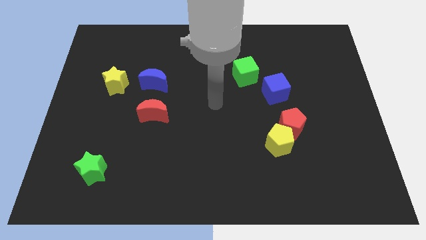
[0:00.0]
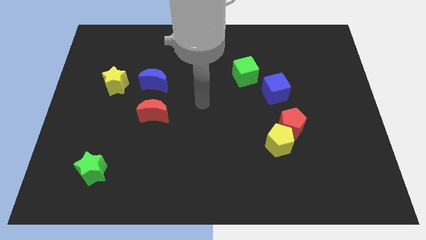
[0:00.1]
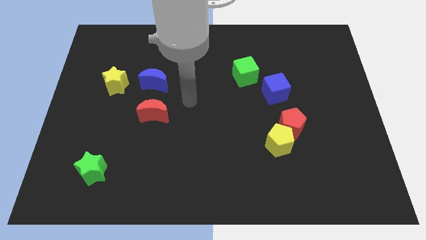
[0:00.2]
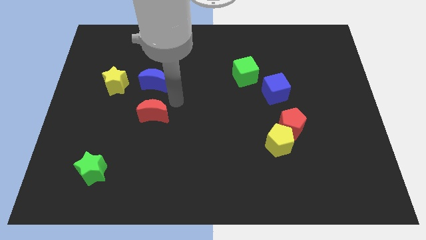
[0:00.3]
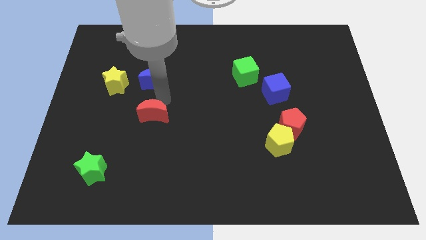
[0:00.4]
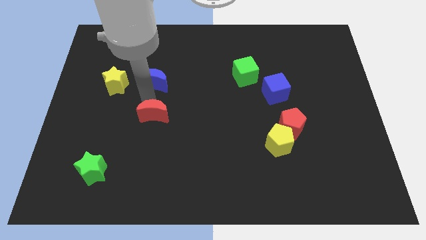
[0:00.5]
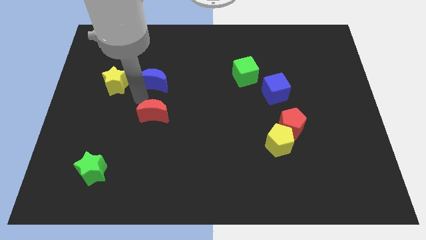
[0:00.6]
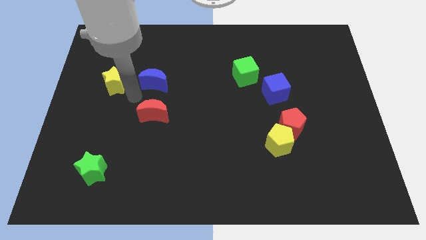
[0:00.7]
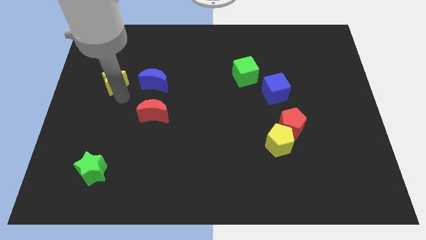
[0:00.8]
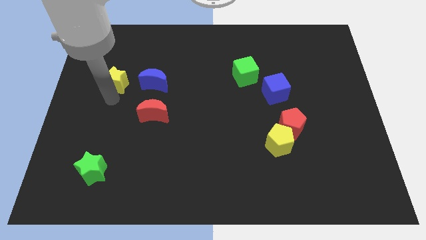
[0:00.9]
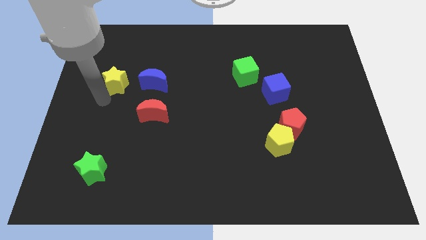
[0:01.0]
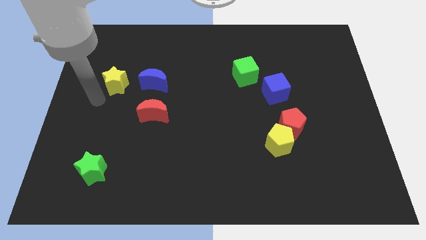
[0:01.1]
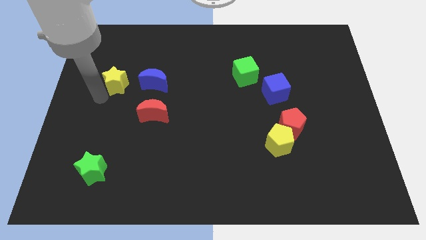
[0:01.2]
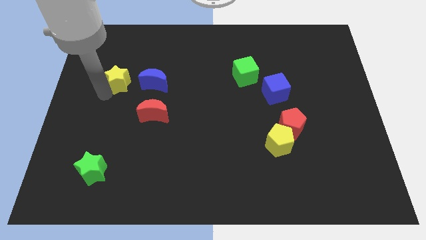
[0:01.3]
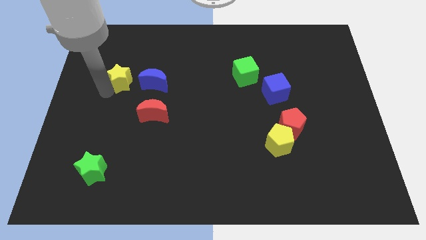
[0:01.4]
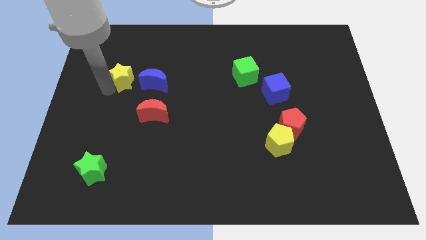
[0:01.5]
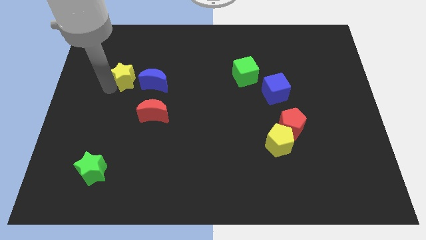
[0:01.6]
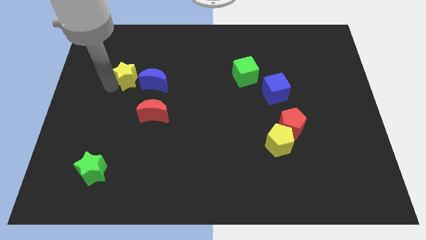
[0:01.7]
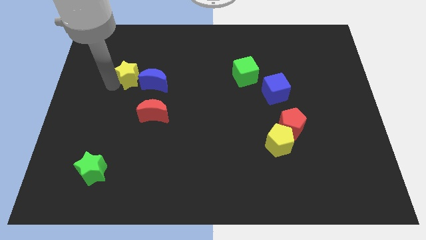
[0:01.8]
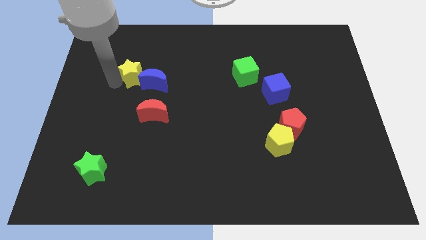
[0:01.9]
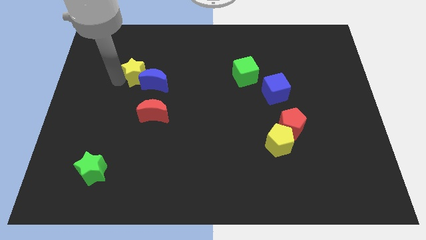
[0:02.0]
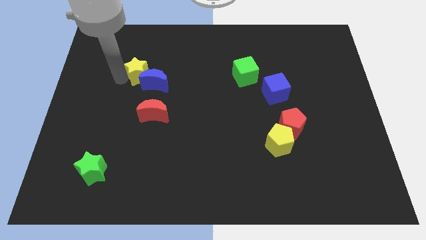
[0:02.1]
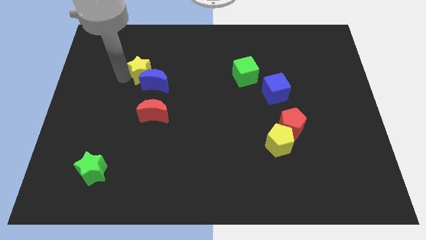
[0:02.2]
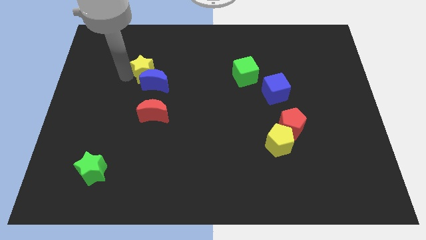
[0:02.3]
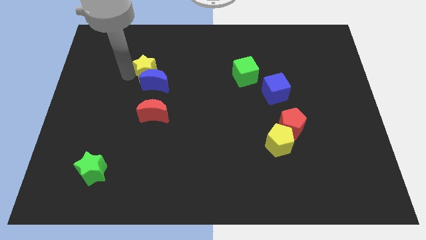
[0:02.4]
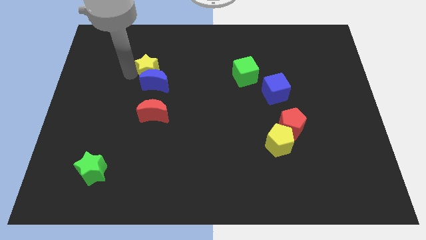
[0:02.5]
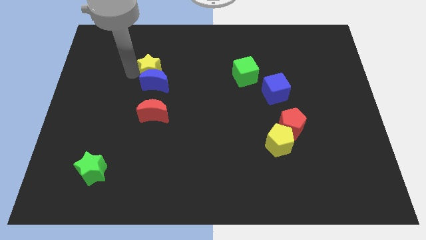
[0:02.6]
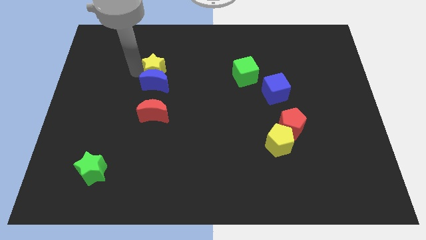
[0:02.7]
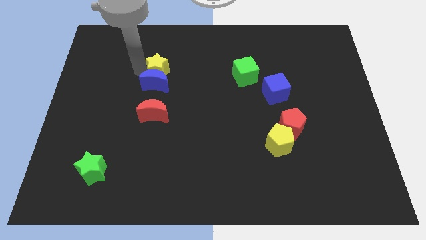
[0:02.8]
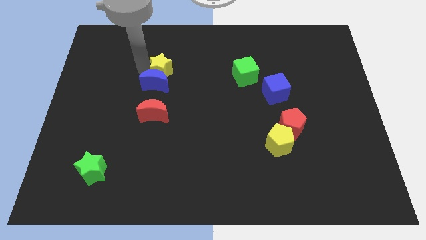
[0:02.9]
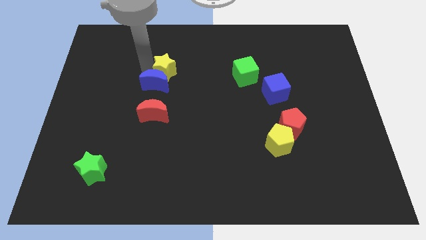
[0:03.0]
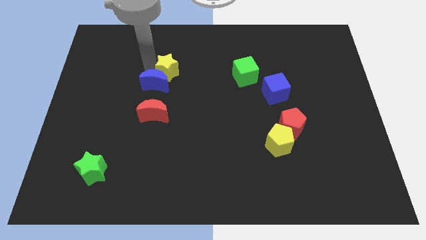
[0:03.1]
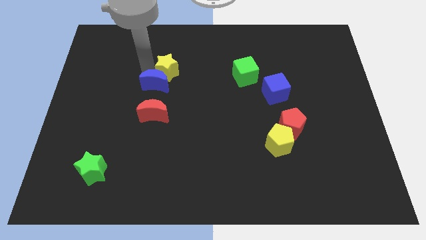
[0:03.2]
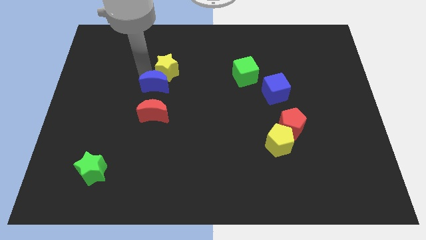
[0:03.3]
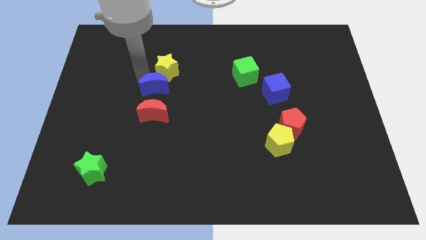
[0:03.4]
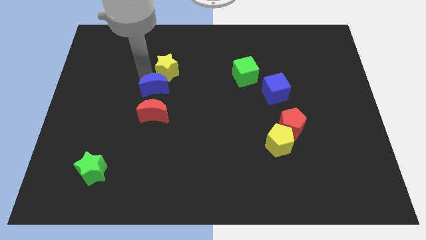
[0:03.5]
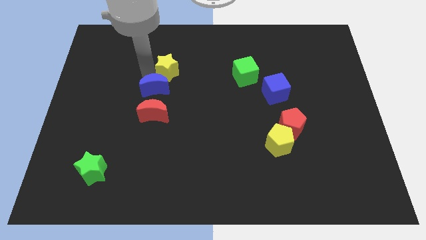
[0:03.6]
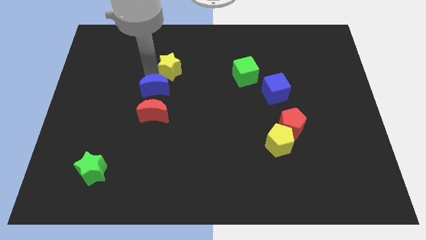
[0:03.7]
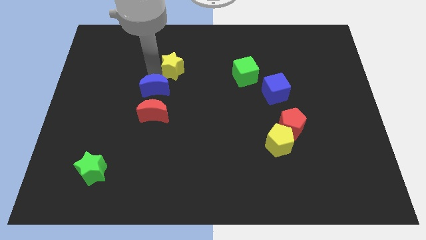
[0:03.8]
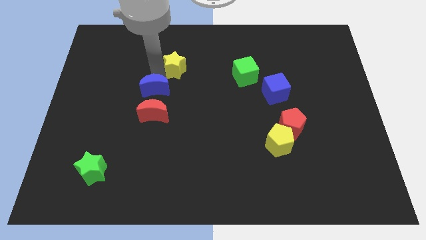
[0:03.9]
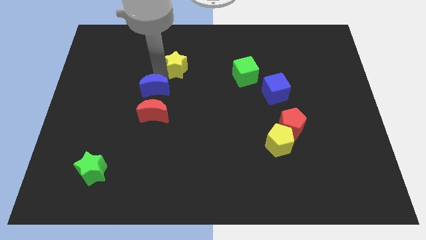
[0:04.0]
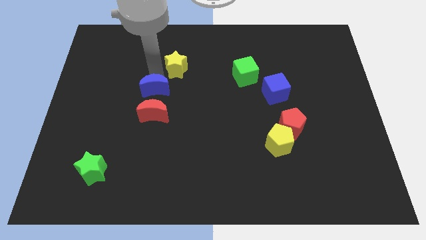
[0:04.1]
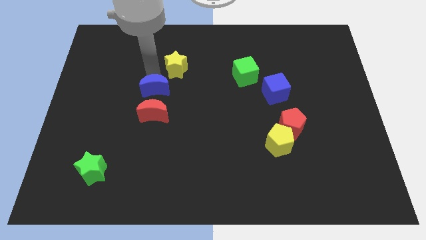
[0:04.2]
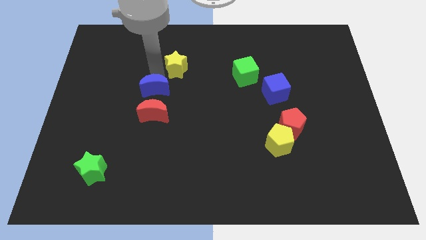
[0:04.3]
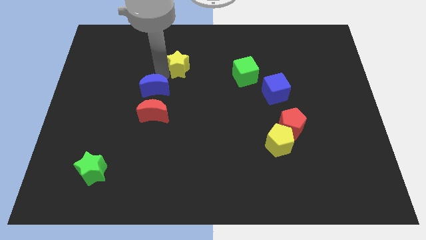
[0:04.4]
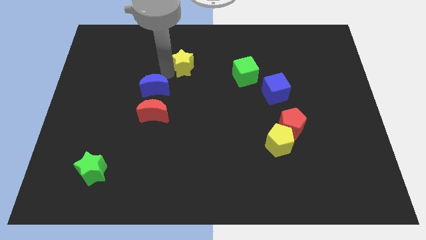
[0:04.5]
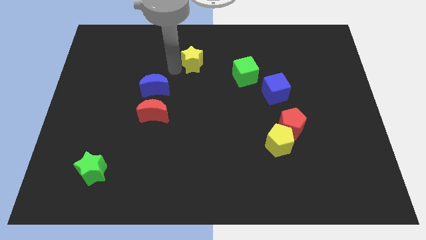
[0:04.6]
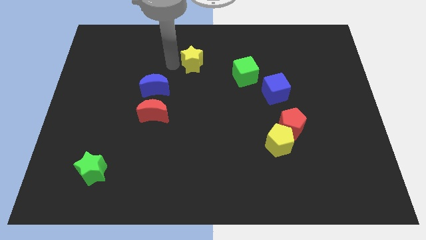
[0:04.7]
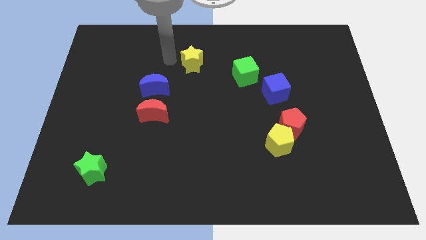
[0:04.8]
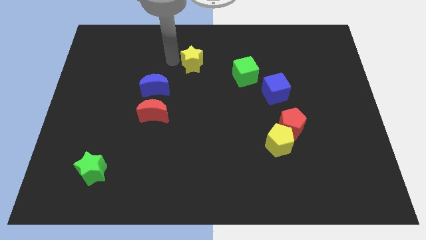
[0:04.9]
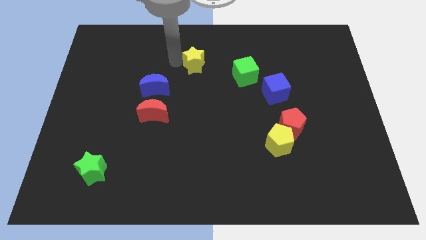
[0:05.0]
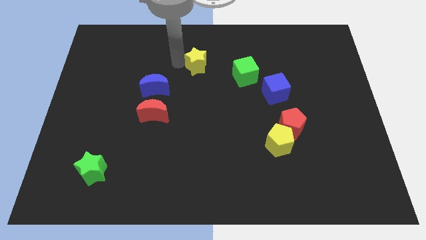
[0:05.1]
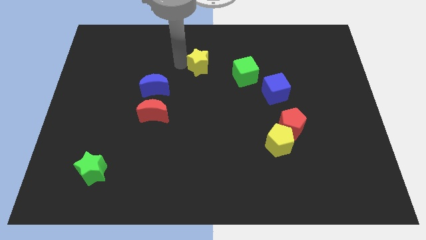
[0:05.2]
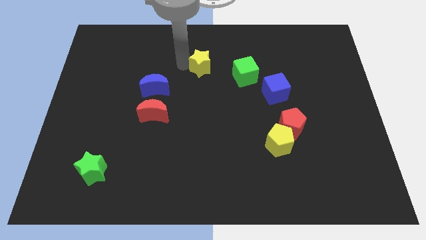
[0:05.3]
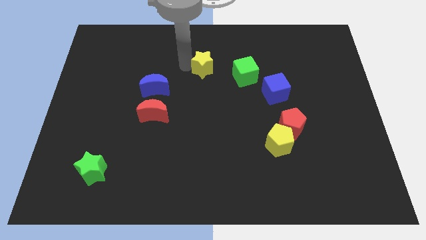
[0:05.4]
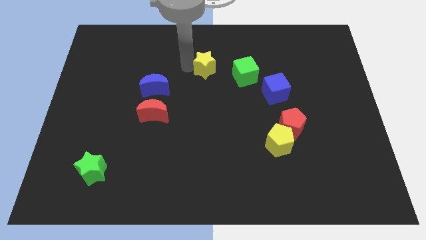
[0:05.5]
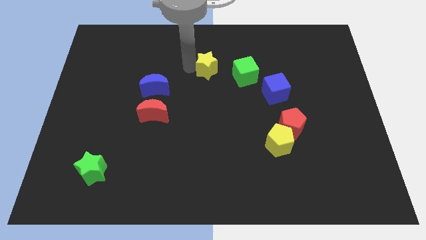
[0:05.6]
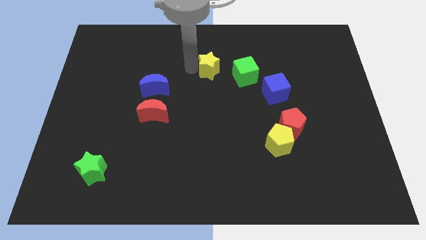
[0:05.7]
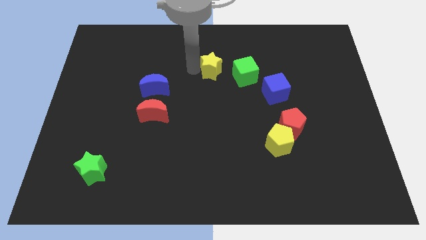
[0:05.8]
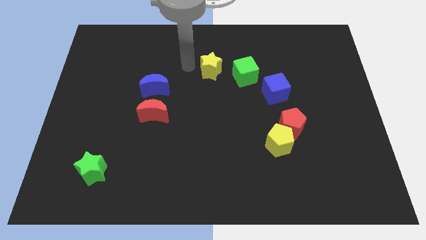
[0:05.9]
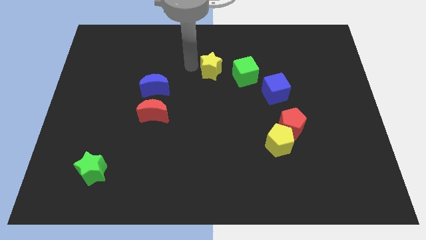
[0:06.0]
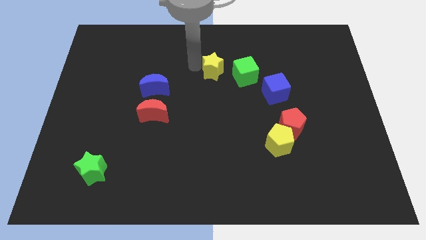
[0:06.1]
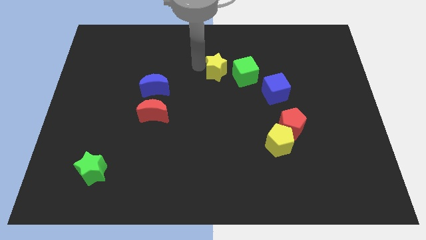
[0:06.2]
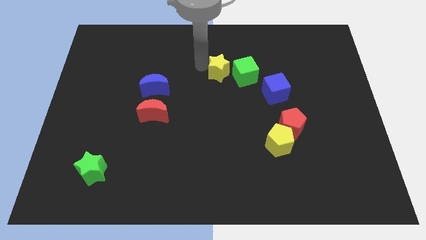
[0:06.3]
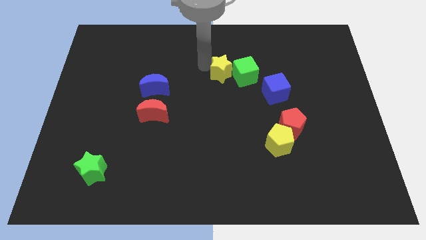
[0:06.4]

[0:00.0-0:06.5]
push the yellow star next to the green cube

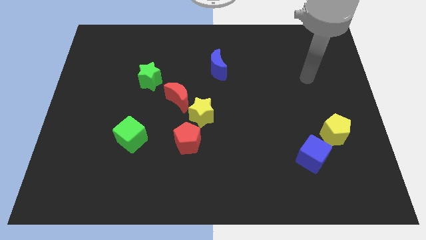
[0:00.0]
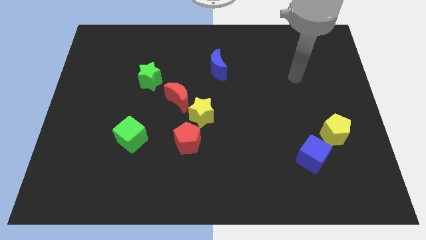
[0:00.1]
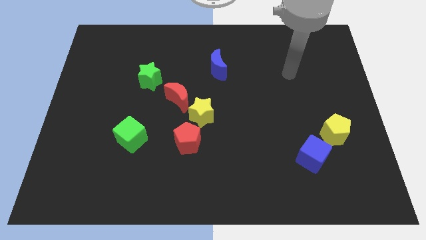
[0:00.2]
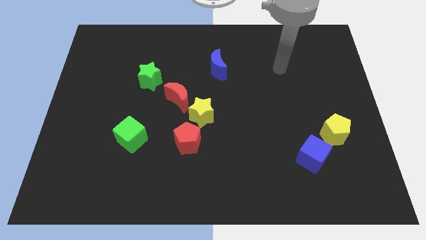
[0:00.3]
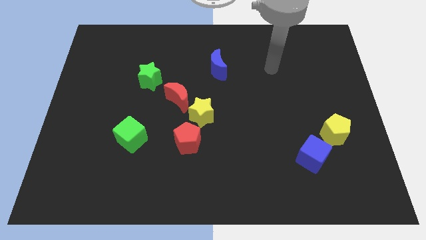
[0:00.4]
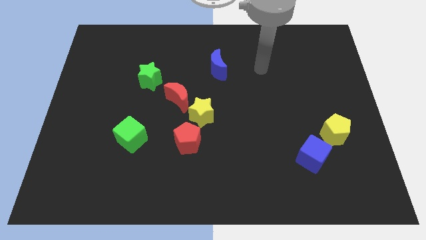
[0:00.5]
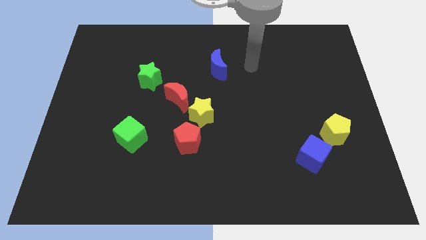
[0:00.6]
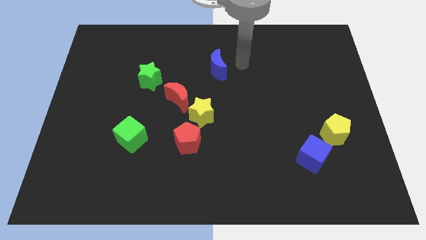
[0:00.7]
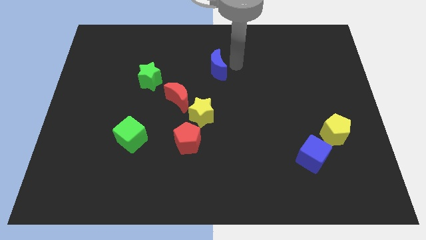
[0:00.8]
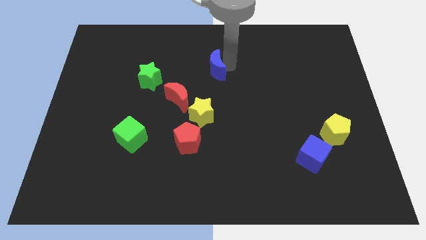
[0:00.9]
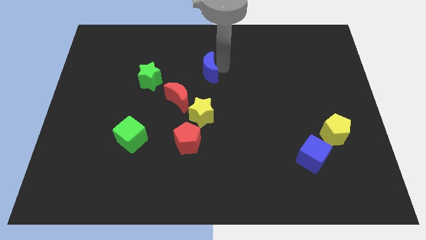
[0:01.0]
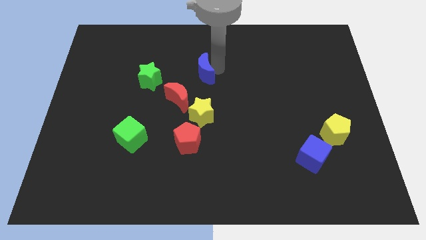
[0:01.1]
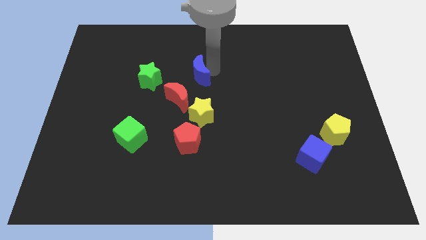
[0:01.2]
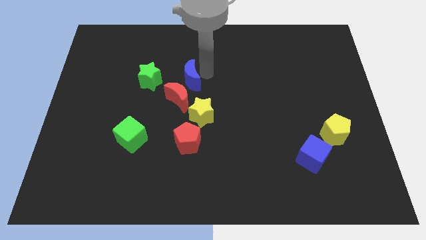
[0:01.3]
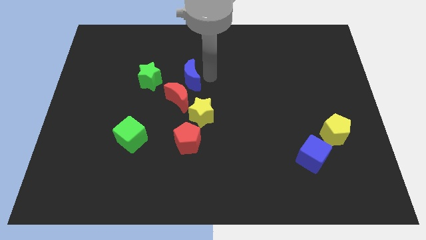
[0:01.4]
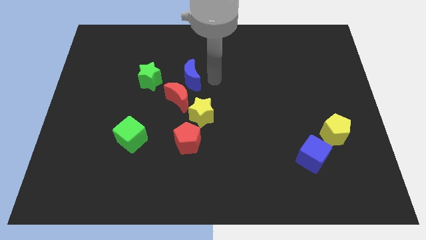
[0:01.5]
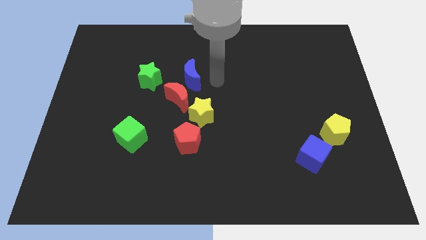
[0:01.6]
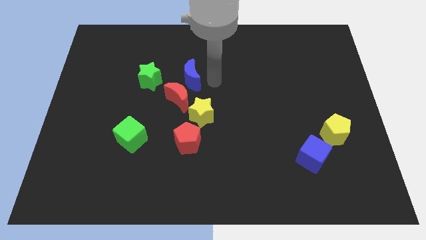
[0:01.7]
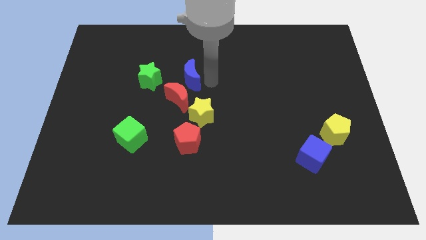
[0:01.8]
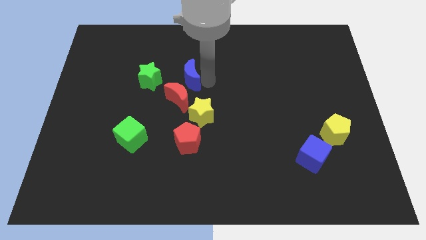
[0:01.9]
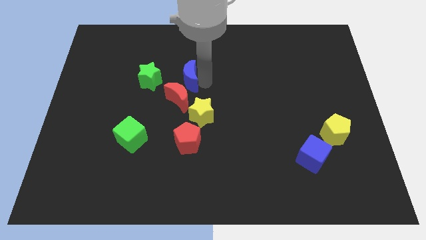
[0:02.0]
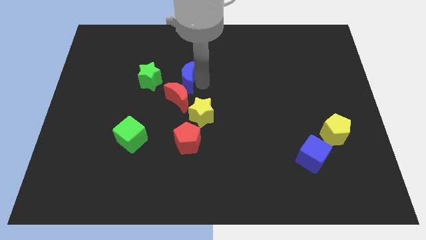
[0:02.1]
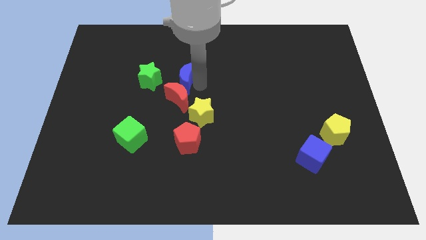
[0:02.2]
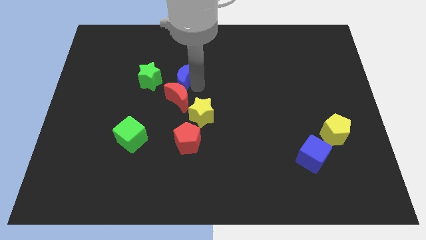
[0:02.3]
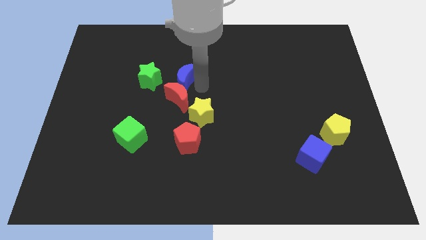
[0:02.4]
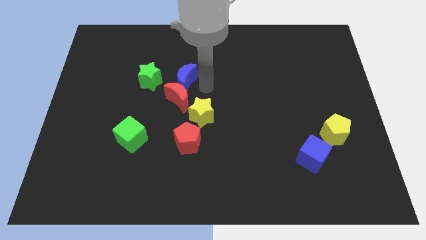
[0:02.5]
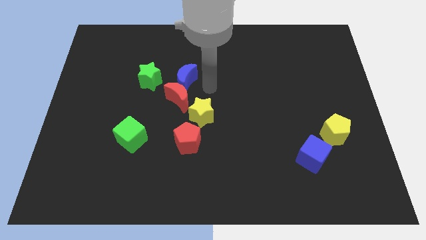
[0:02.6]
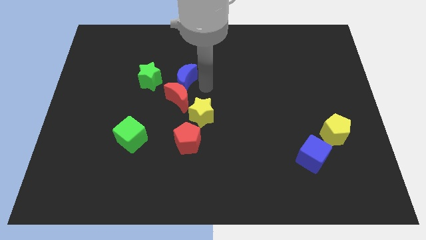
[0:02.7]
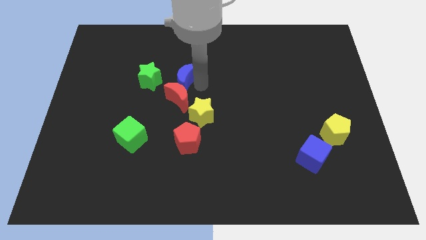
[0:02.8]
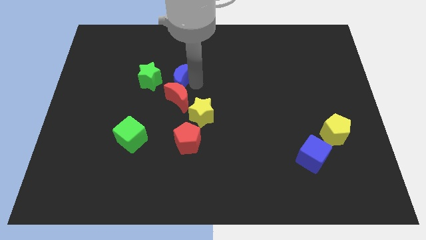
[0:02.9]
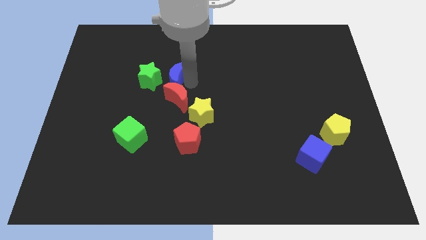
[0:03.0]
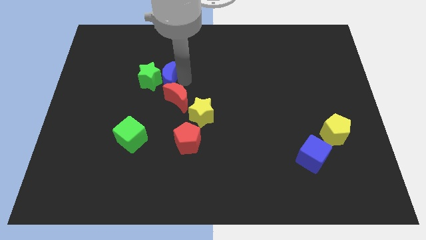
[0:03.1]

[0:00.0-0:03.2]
push the blue moon next to the green star
